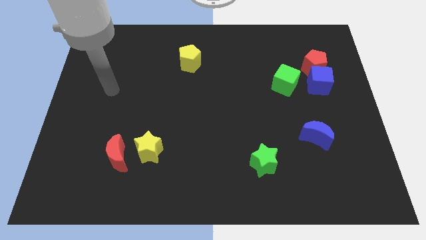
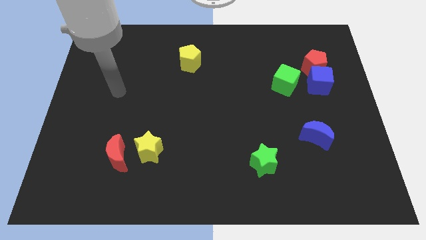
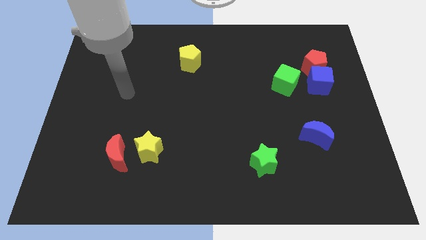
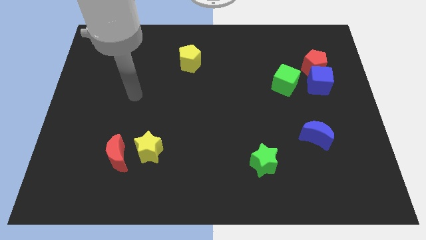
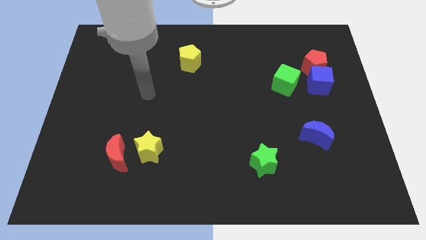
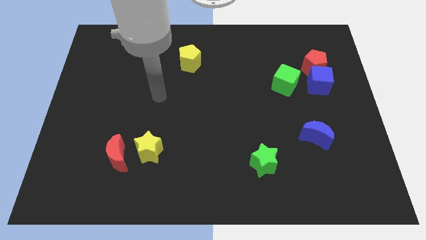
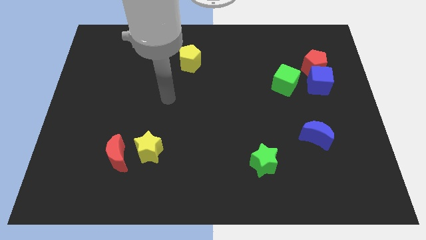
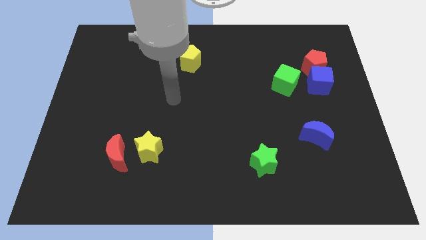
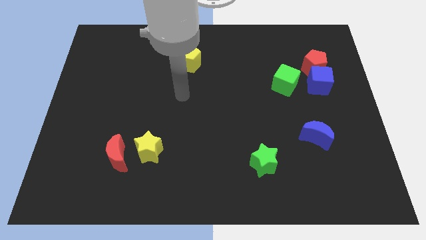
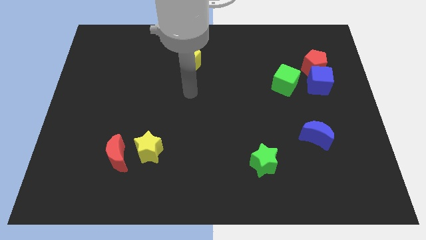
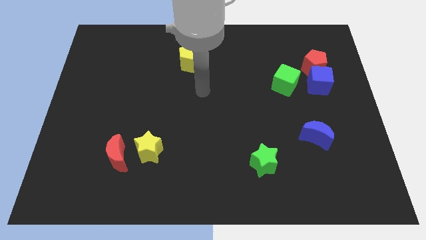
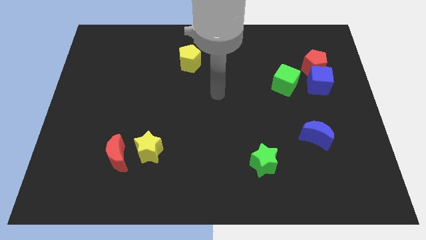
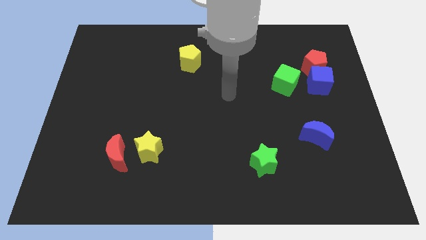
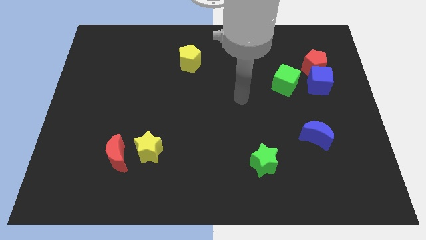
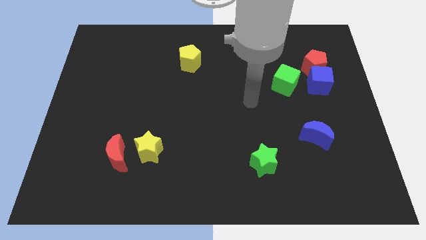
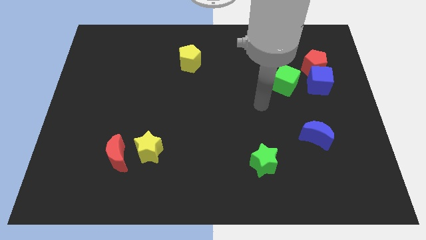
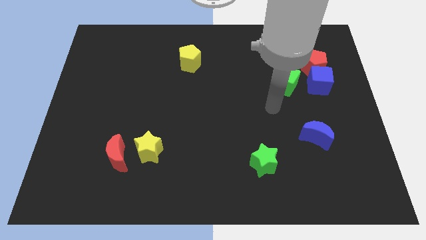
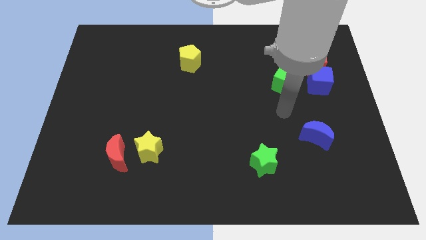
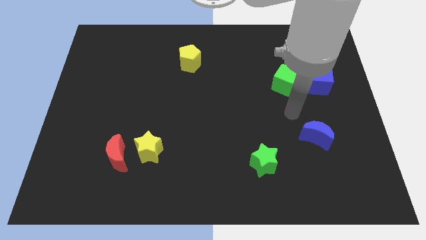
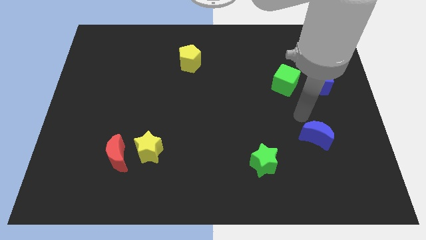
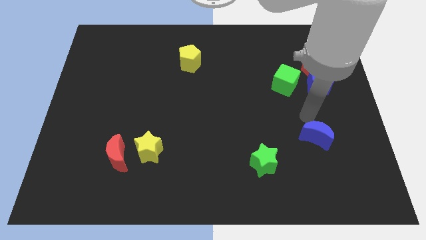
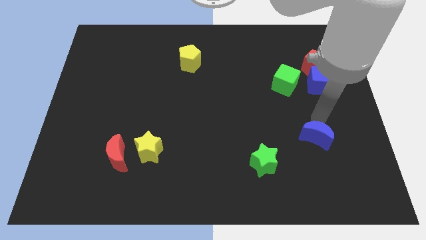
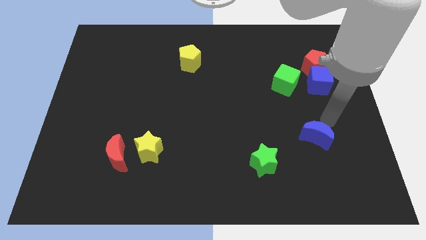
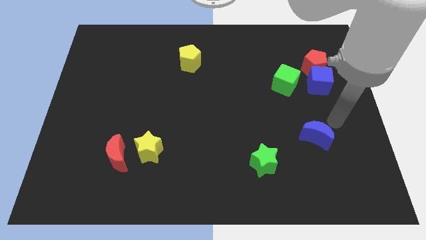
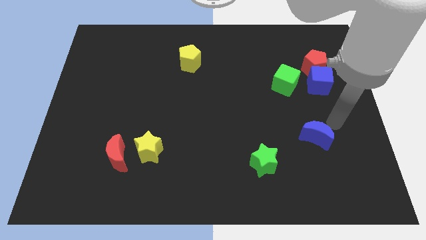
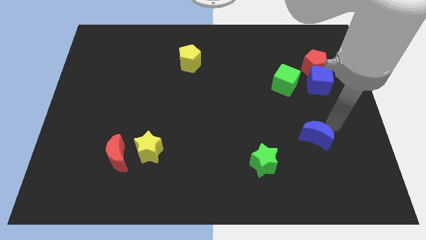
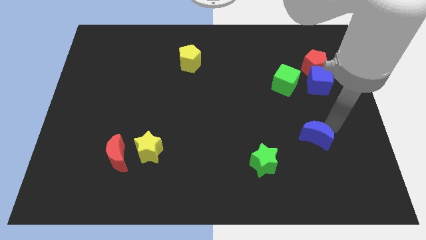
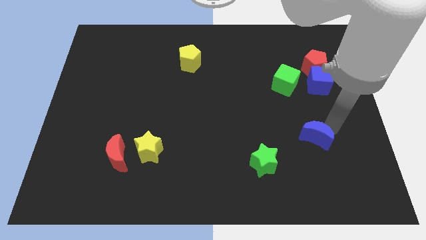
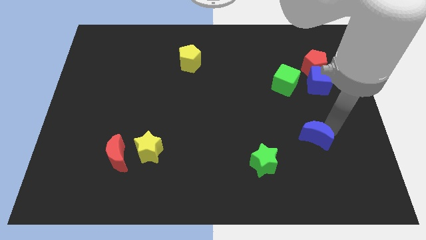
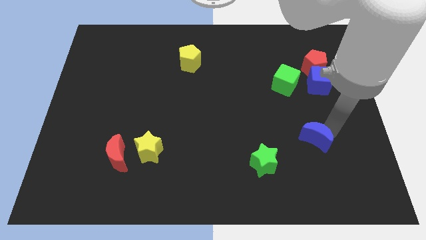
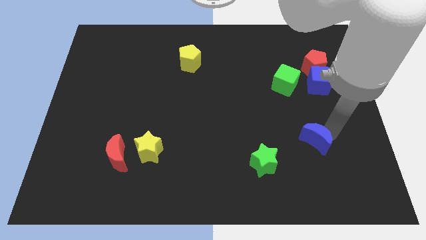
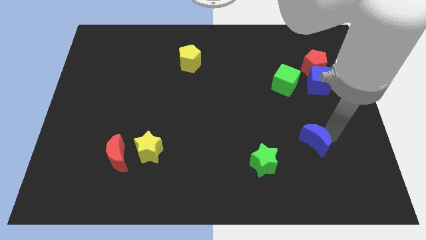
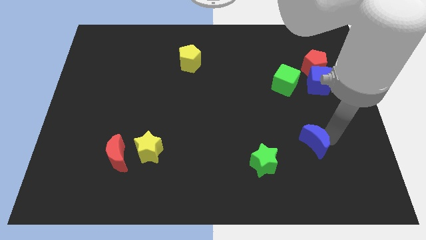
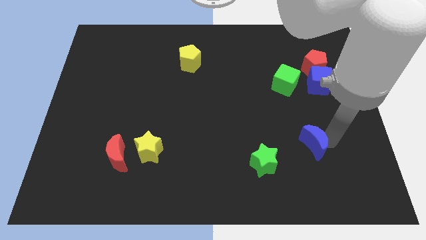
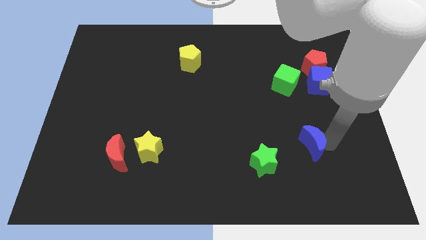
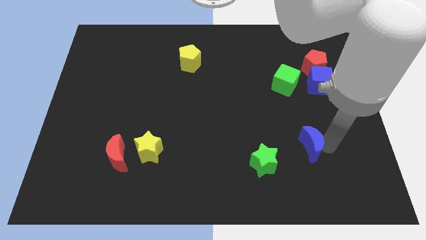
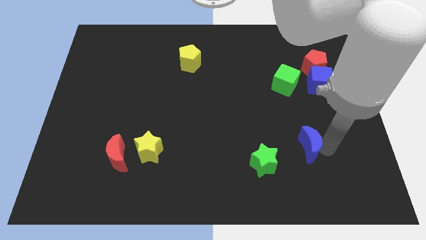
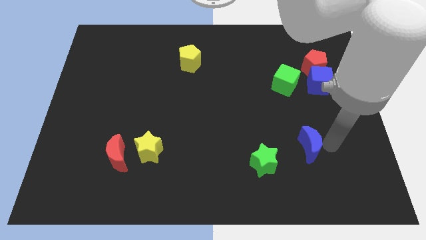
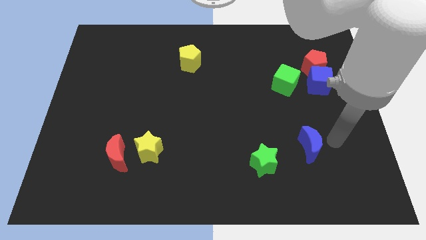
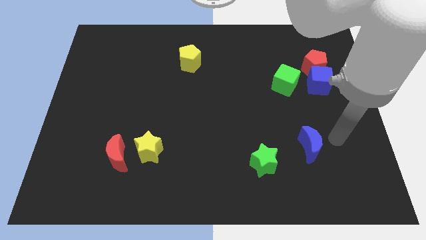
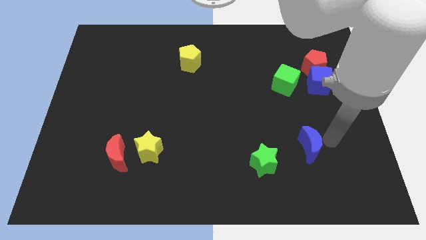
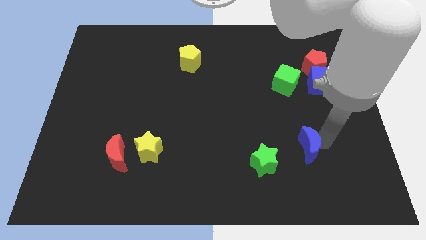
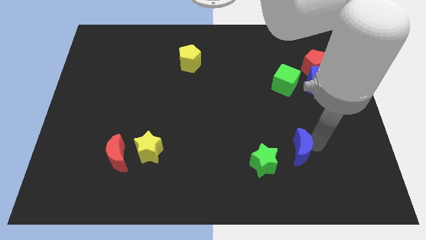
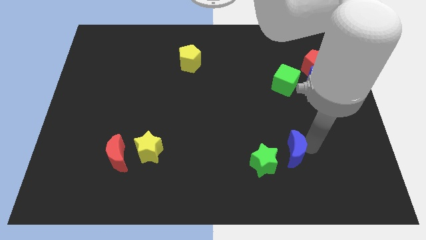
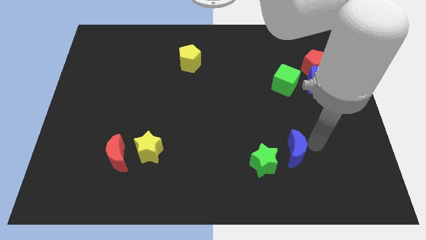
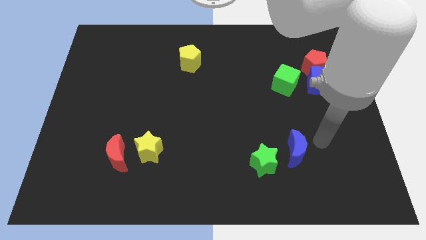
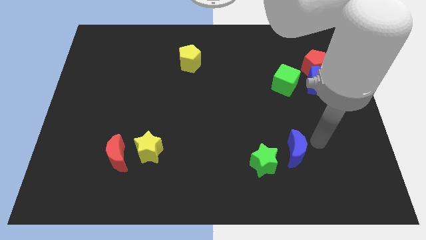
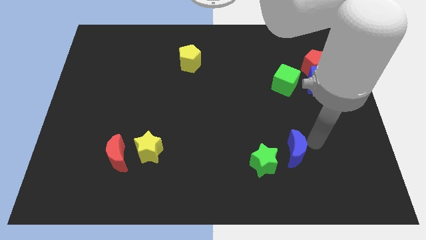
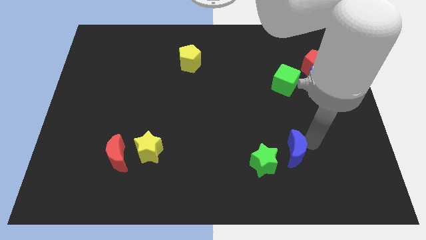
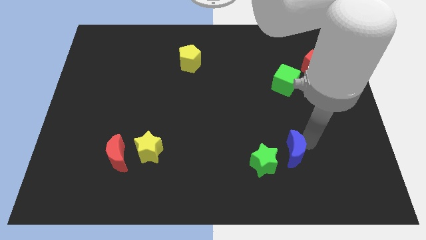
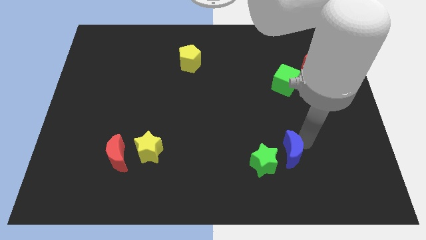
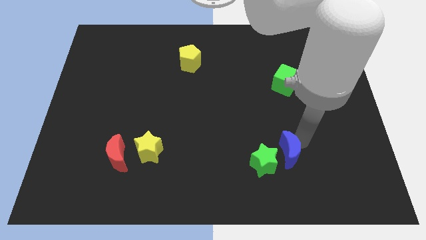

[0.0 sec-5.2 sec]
move the blue moon next to the green star

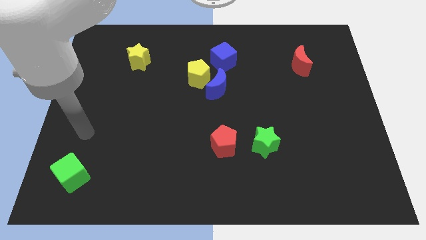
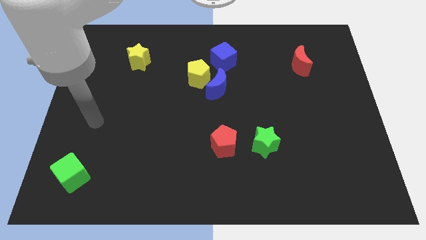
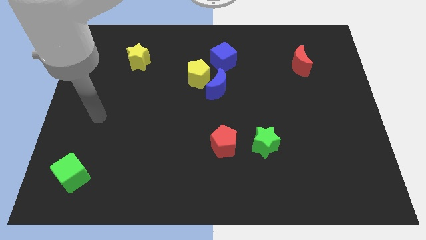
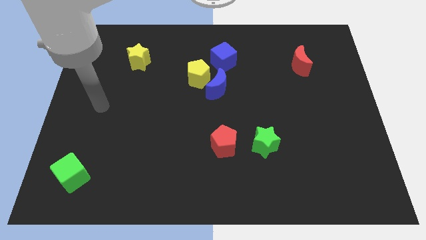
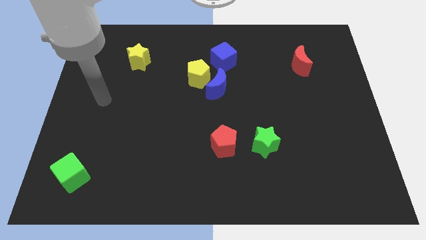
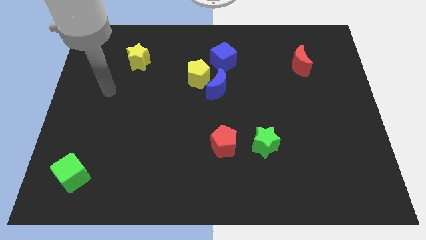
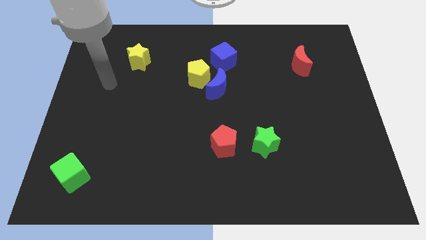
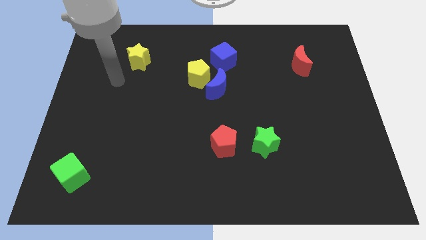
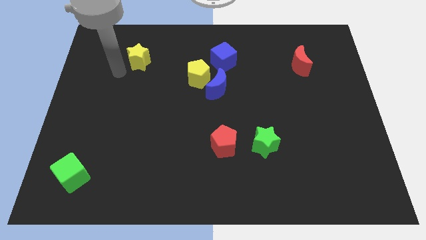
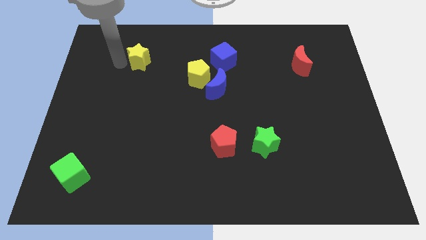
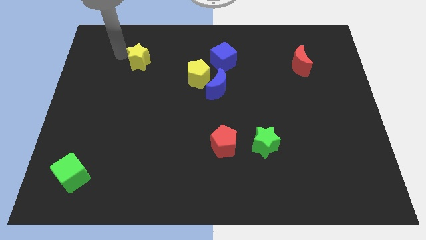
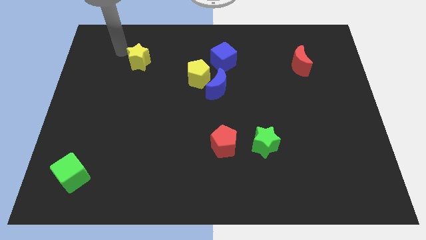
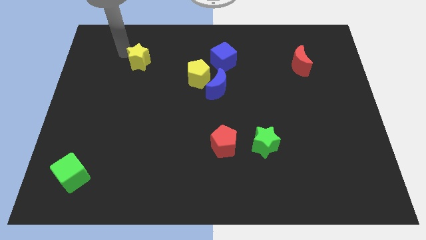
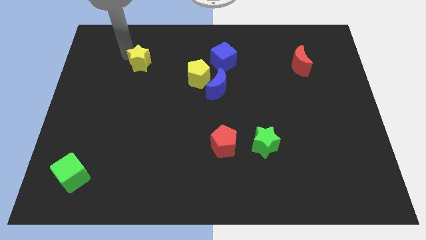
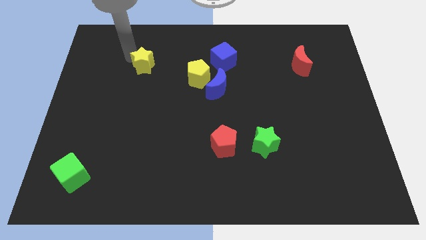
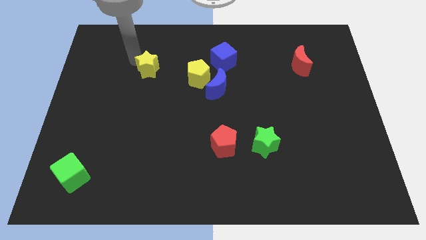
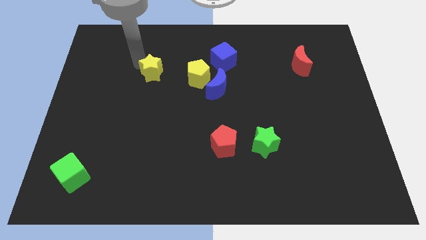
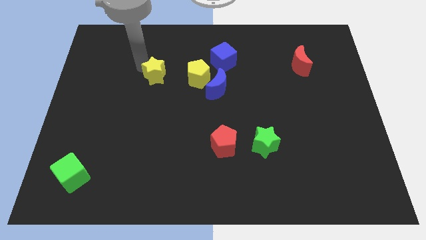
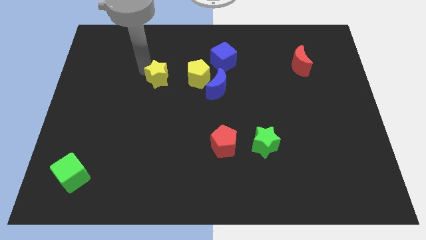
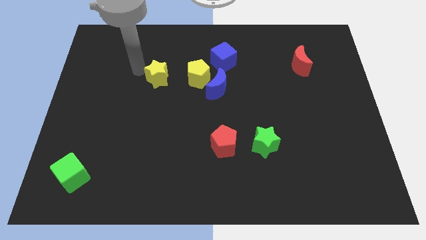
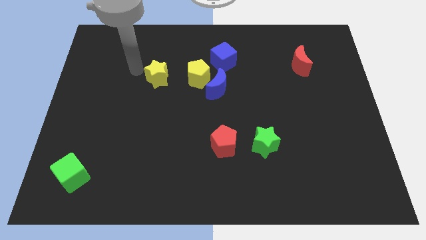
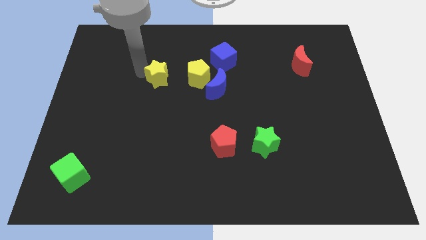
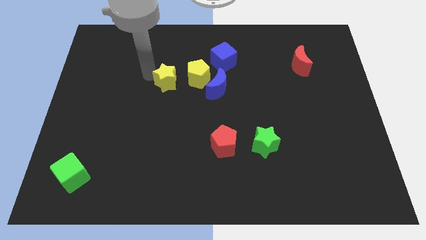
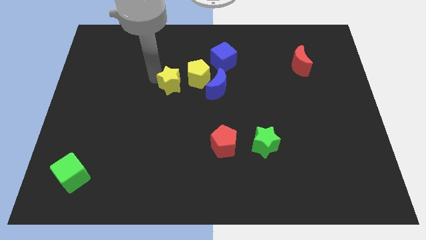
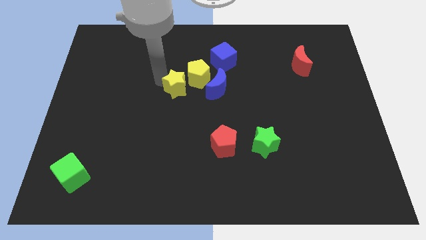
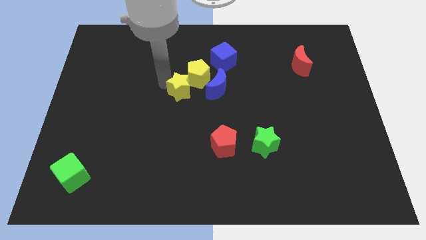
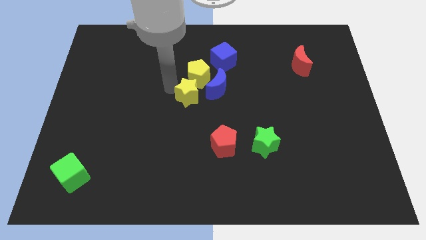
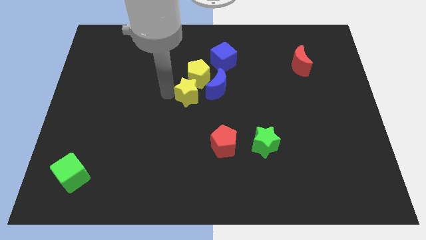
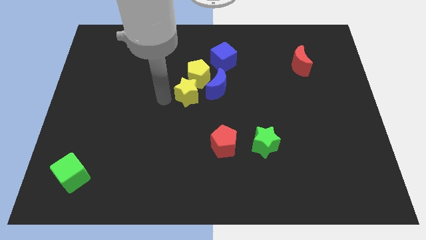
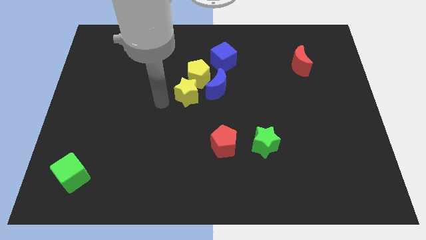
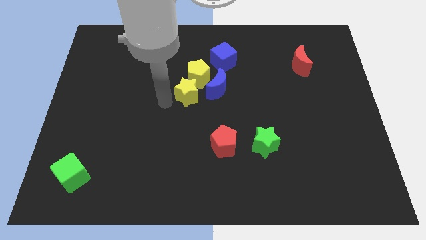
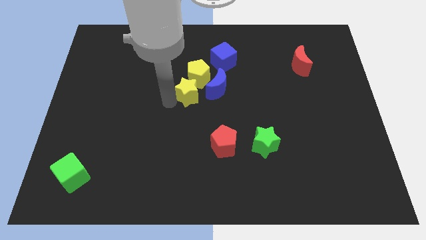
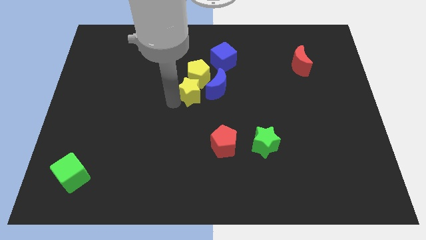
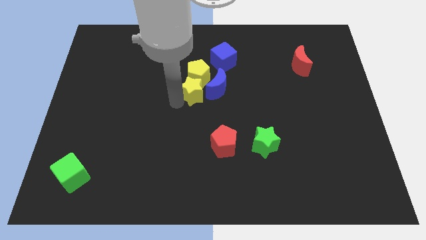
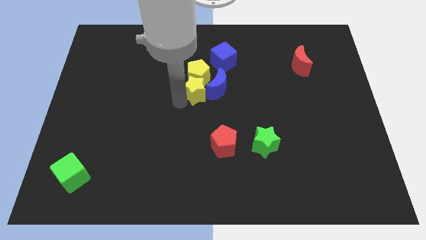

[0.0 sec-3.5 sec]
put the yellow star to the blue moon
